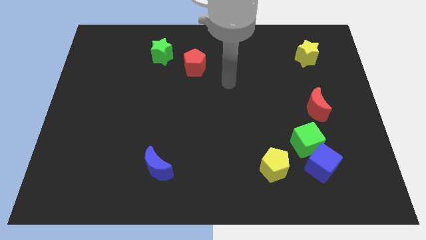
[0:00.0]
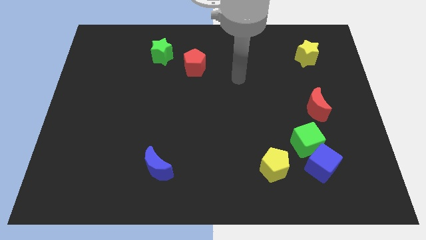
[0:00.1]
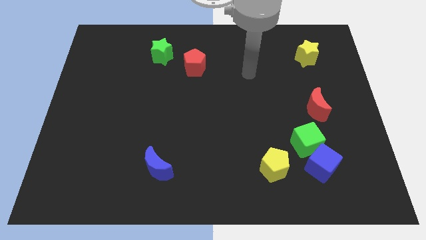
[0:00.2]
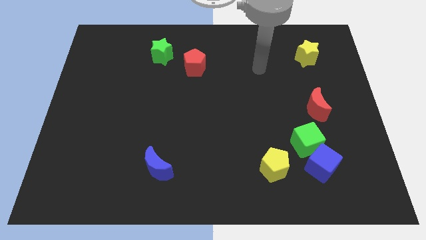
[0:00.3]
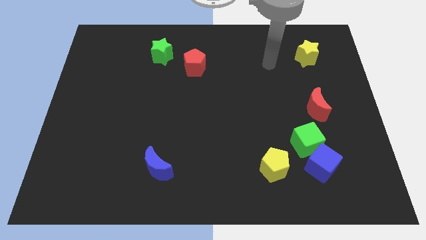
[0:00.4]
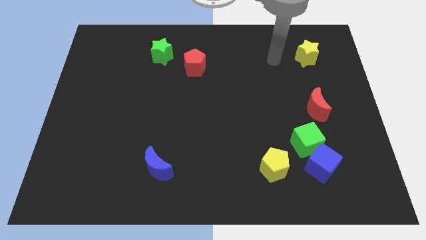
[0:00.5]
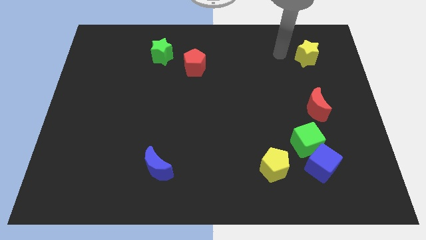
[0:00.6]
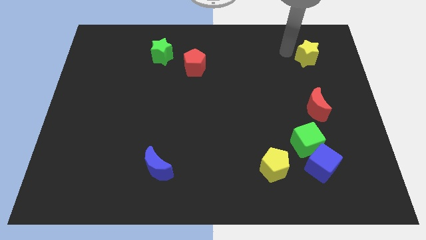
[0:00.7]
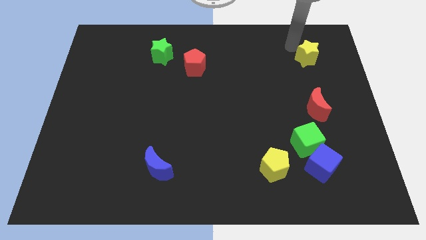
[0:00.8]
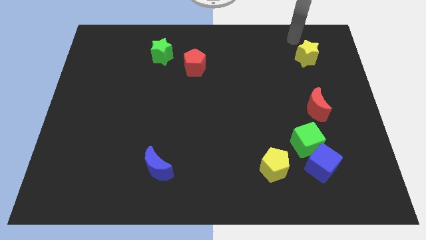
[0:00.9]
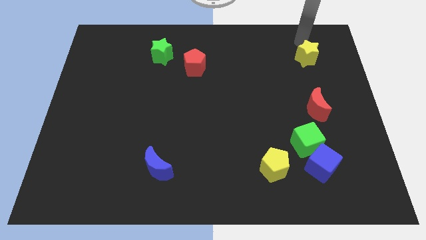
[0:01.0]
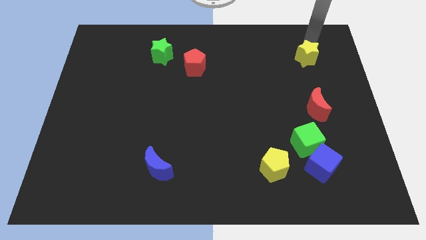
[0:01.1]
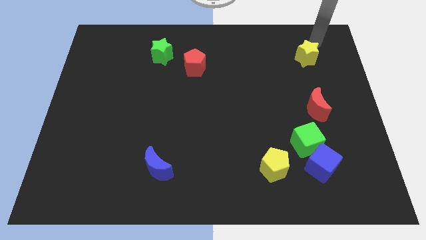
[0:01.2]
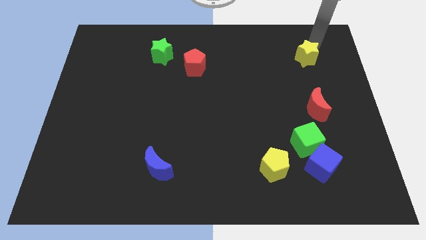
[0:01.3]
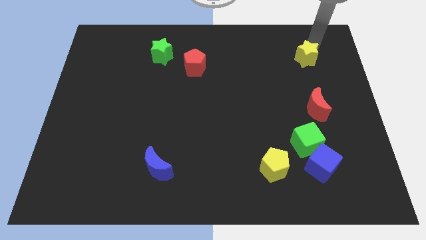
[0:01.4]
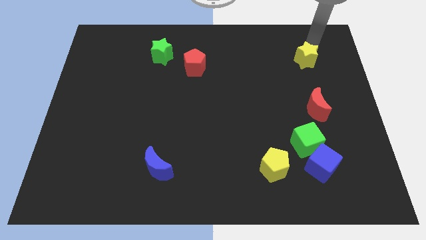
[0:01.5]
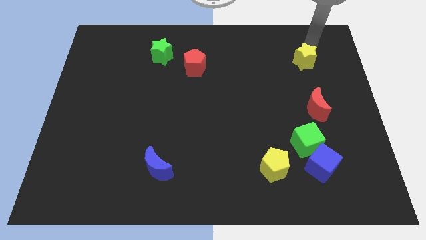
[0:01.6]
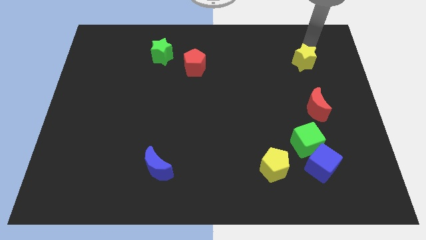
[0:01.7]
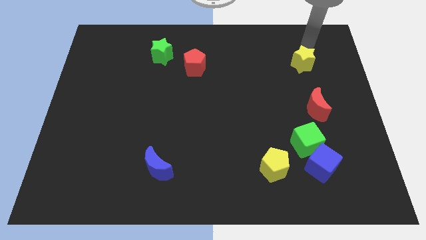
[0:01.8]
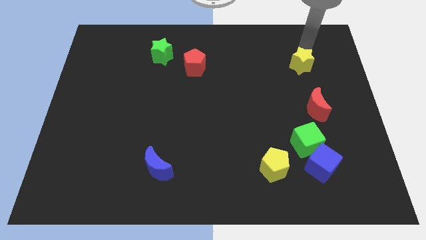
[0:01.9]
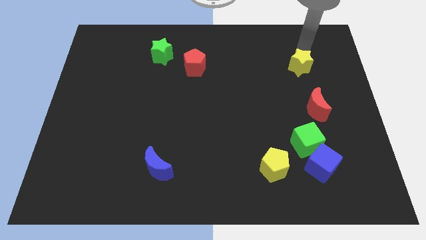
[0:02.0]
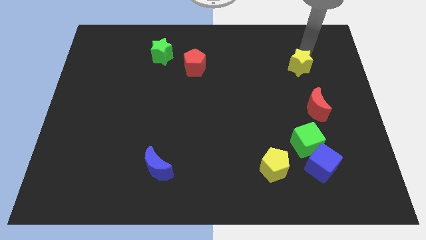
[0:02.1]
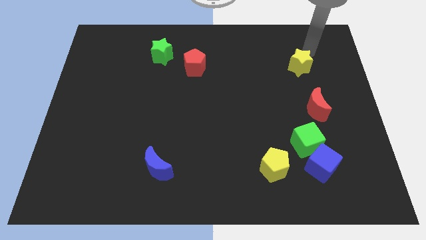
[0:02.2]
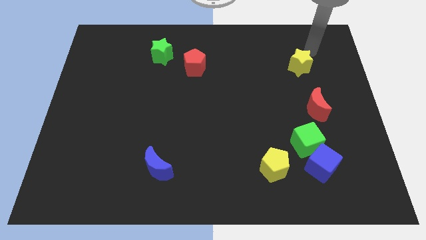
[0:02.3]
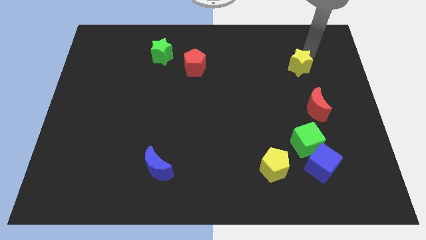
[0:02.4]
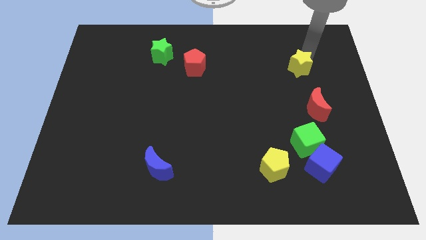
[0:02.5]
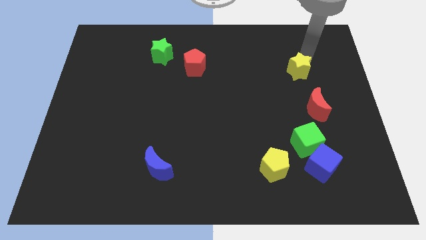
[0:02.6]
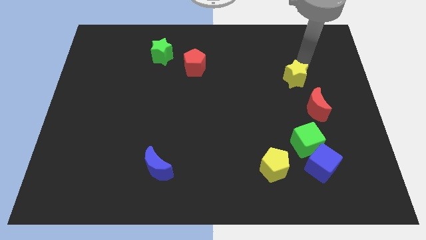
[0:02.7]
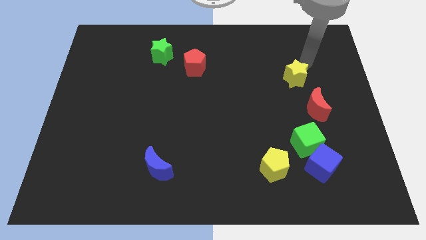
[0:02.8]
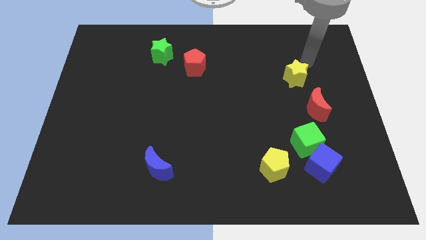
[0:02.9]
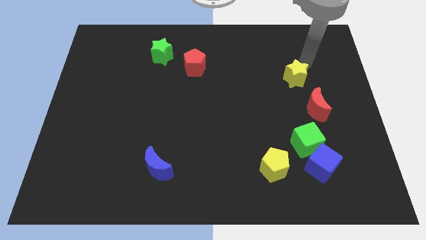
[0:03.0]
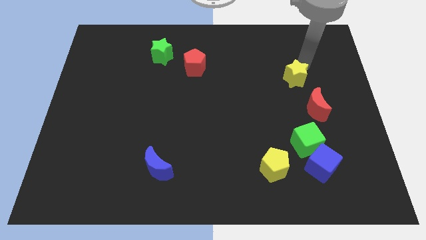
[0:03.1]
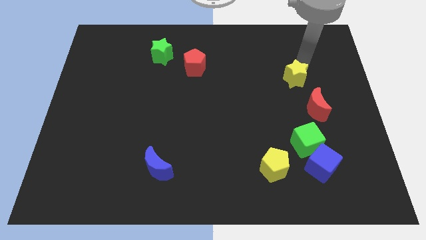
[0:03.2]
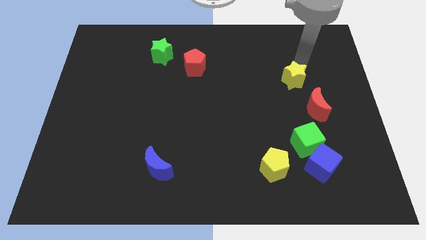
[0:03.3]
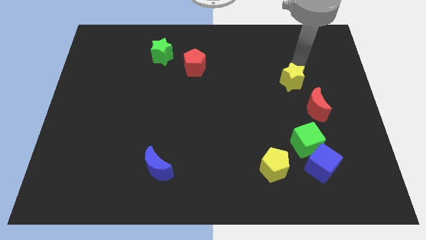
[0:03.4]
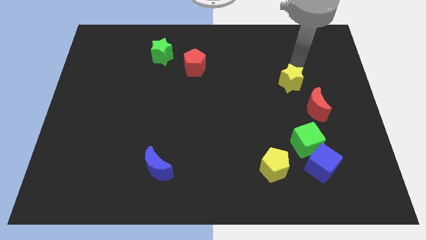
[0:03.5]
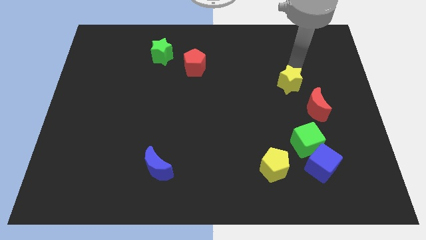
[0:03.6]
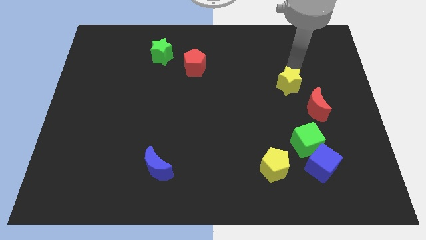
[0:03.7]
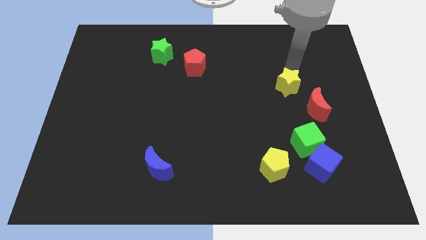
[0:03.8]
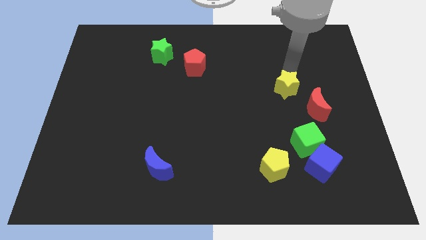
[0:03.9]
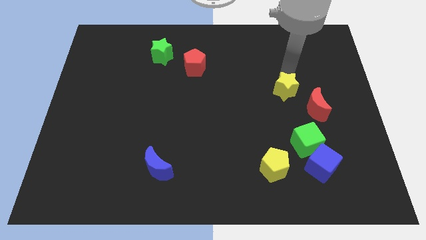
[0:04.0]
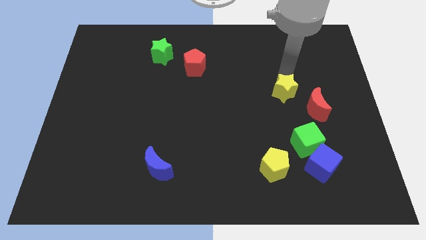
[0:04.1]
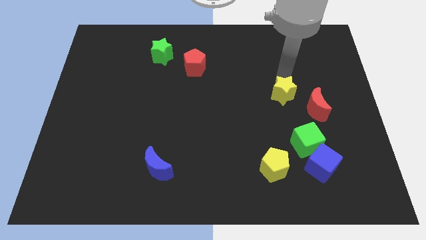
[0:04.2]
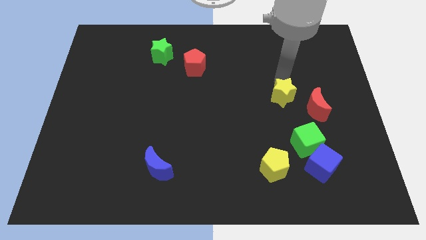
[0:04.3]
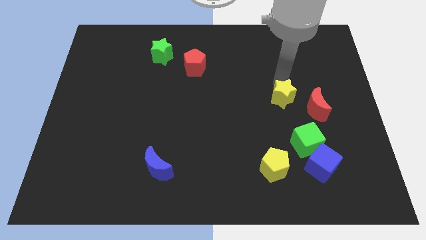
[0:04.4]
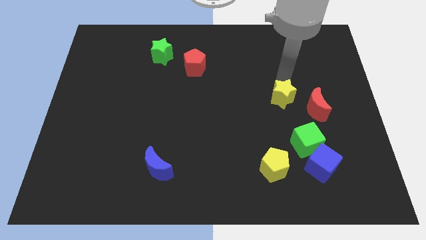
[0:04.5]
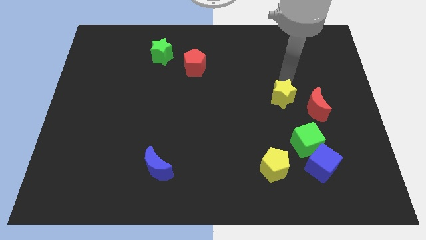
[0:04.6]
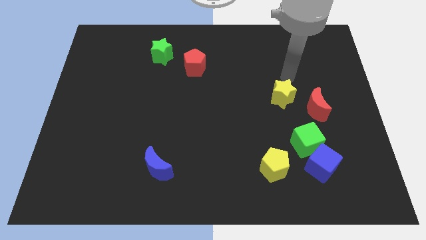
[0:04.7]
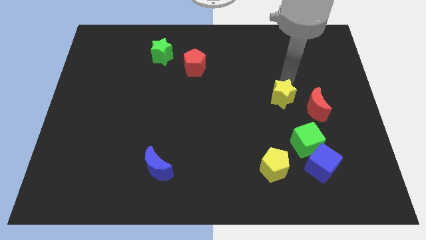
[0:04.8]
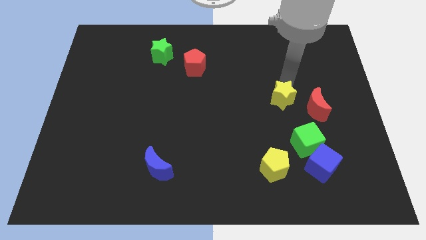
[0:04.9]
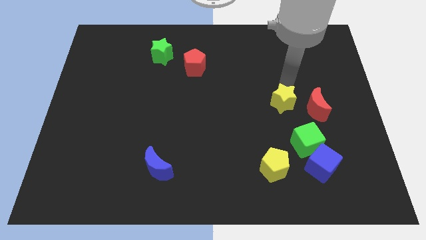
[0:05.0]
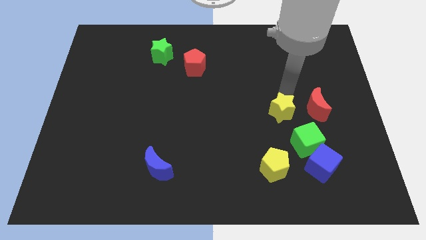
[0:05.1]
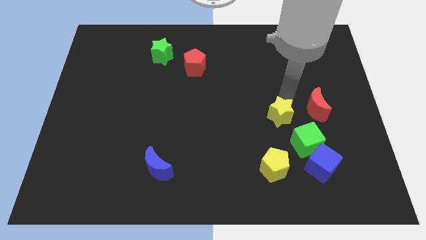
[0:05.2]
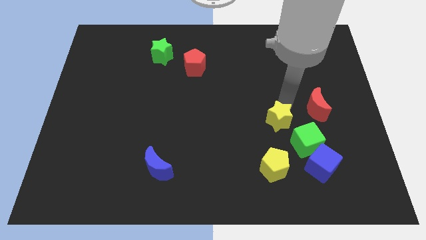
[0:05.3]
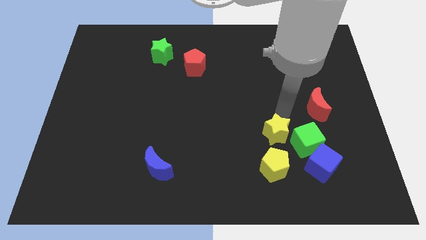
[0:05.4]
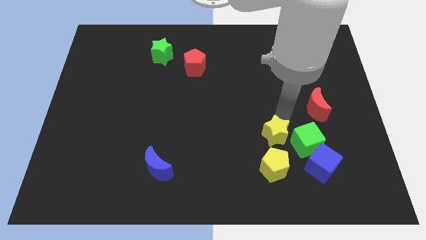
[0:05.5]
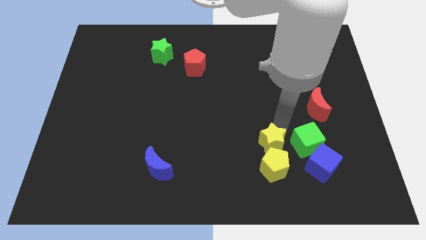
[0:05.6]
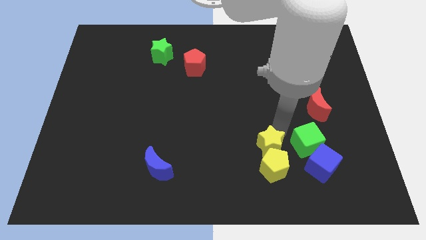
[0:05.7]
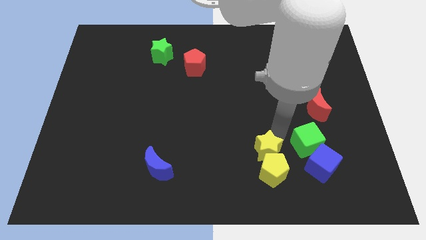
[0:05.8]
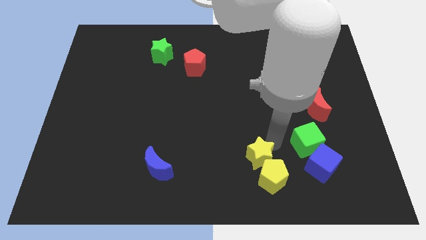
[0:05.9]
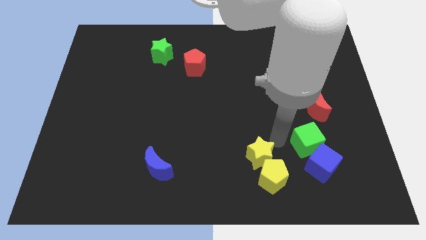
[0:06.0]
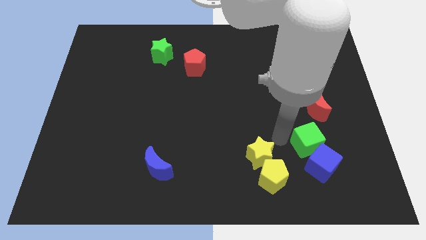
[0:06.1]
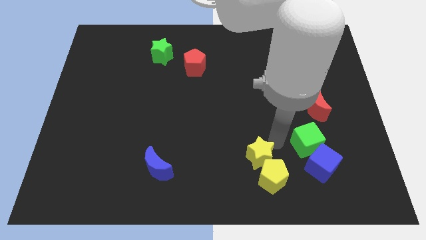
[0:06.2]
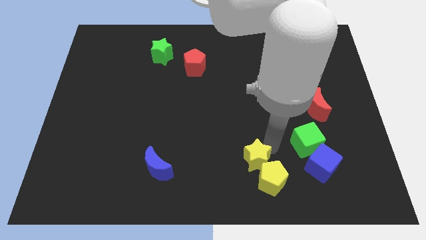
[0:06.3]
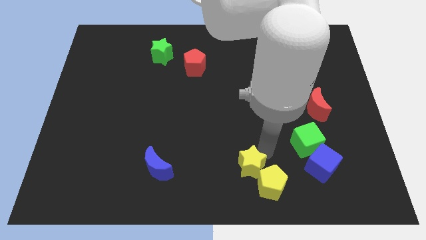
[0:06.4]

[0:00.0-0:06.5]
push the yellow star to the bottom side

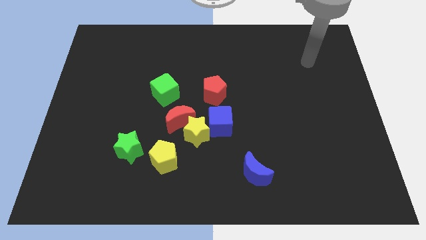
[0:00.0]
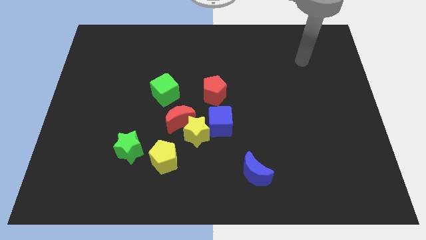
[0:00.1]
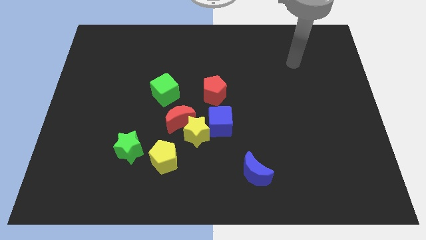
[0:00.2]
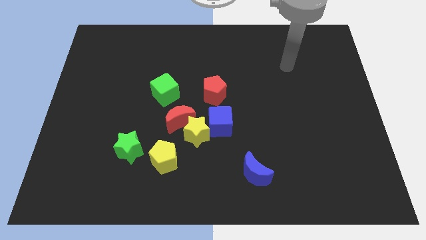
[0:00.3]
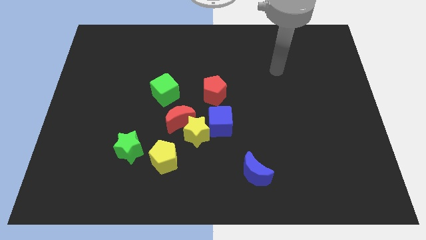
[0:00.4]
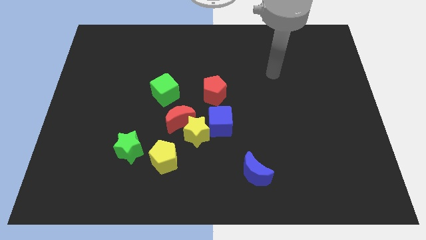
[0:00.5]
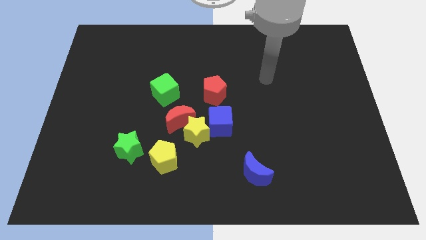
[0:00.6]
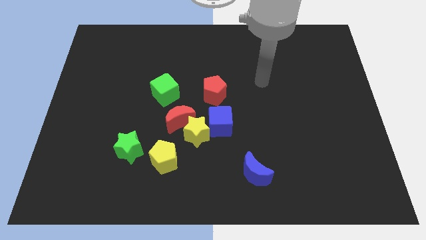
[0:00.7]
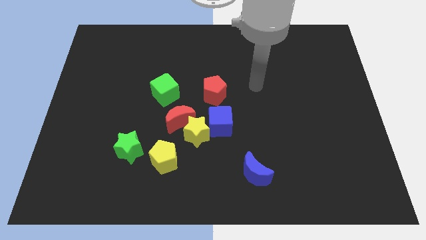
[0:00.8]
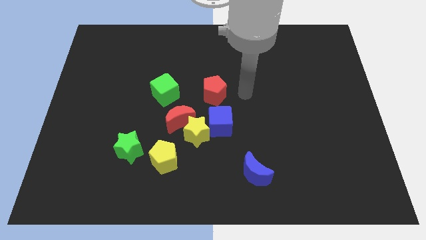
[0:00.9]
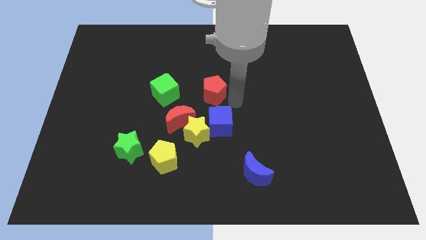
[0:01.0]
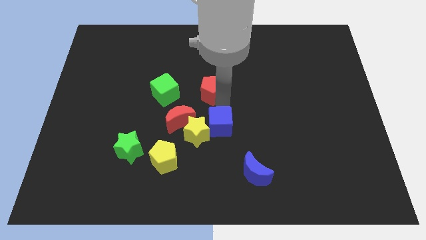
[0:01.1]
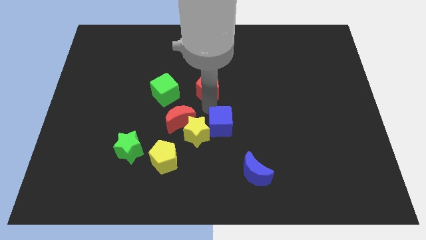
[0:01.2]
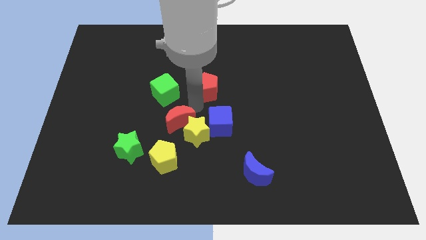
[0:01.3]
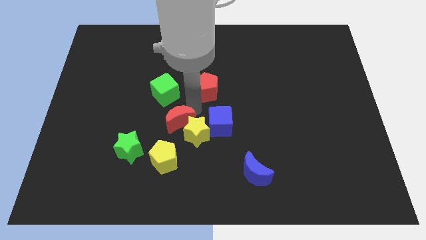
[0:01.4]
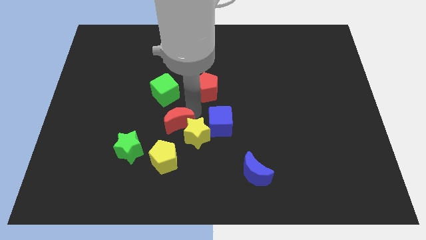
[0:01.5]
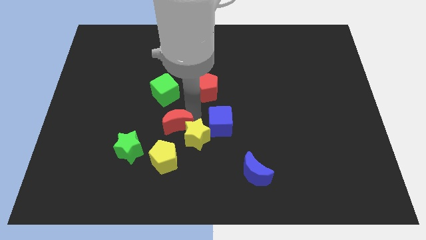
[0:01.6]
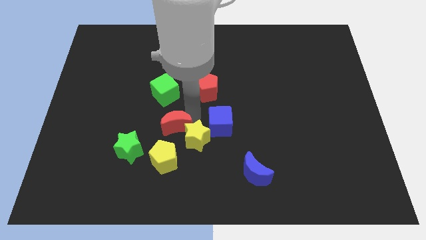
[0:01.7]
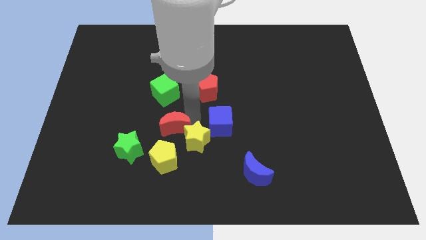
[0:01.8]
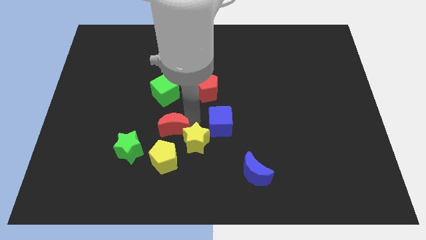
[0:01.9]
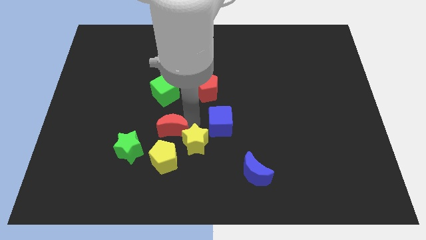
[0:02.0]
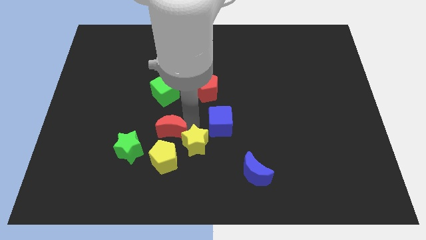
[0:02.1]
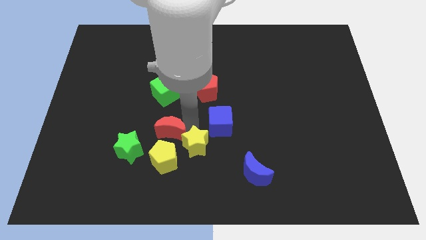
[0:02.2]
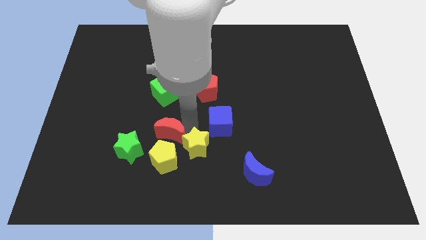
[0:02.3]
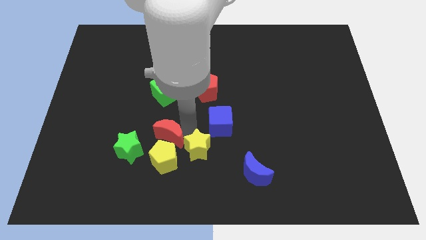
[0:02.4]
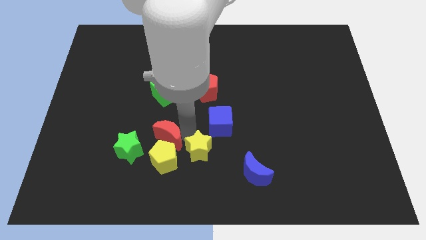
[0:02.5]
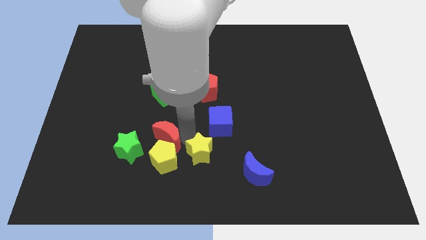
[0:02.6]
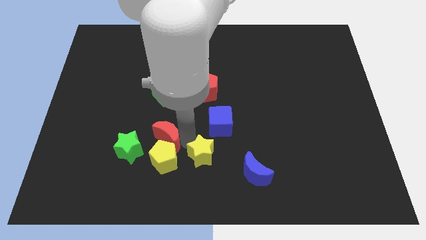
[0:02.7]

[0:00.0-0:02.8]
push the yellow star to the bottom
